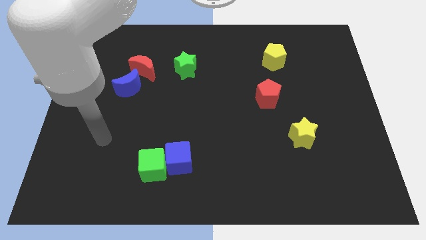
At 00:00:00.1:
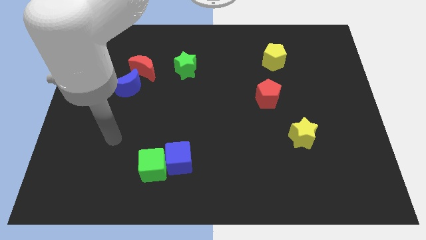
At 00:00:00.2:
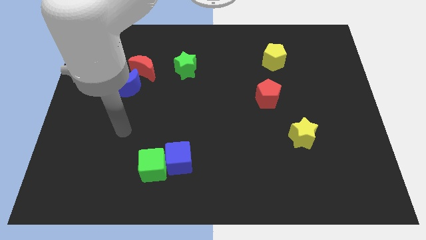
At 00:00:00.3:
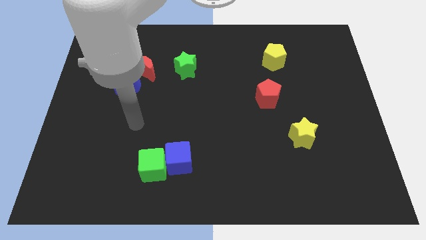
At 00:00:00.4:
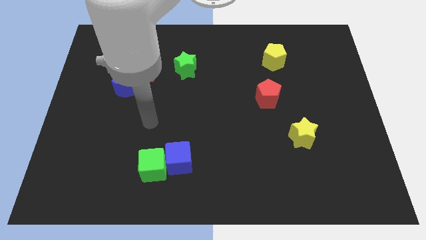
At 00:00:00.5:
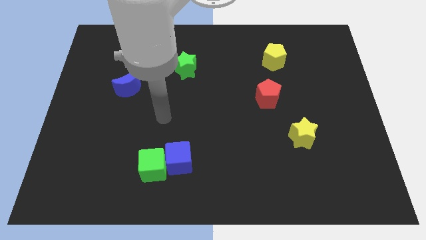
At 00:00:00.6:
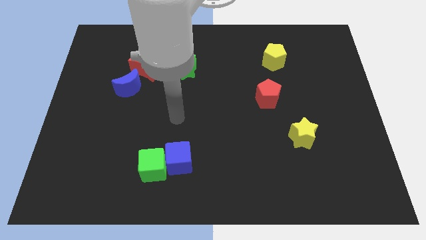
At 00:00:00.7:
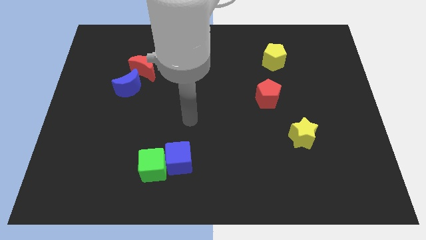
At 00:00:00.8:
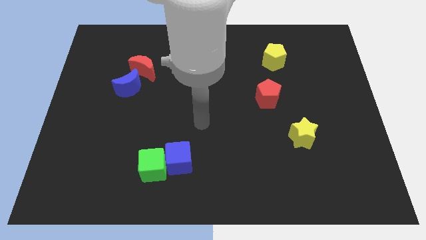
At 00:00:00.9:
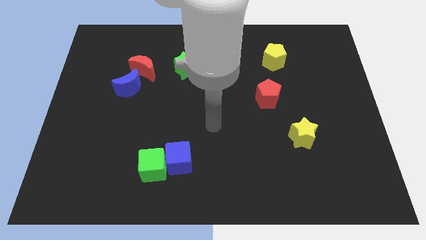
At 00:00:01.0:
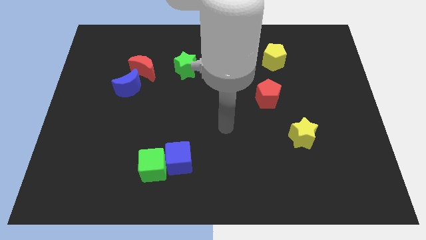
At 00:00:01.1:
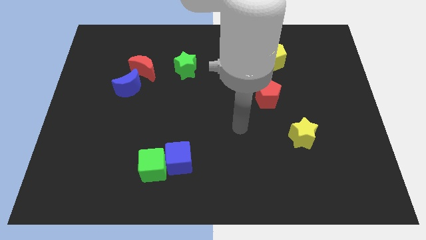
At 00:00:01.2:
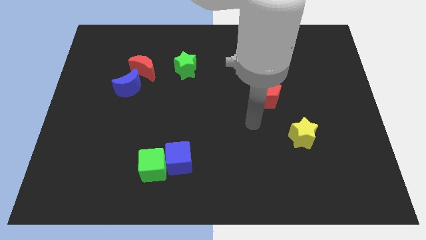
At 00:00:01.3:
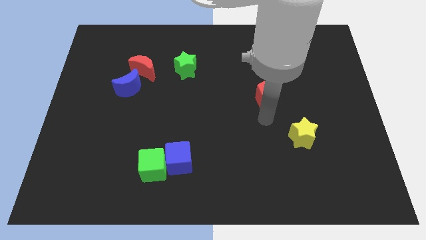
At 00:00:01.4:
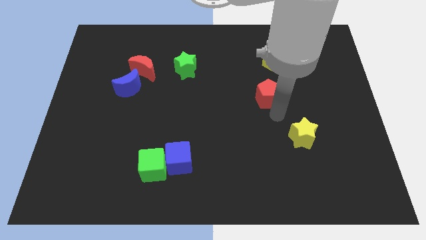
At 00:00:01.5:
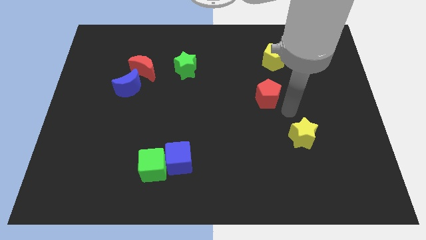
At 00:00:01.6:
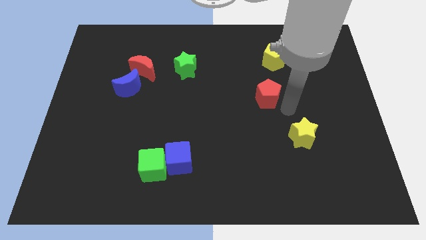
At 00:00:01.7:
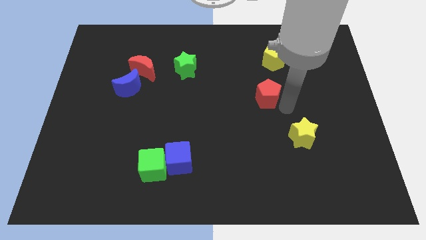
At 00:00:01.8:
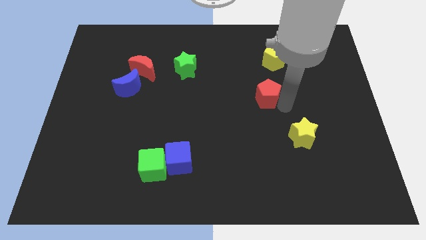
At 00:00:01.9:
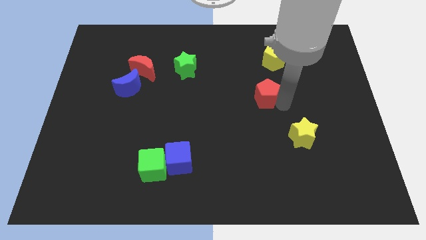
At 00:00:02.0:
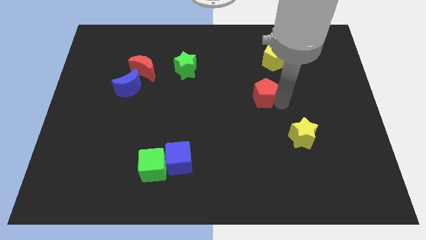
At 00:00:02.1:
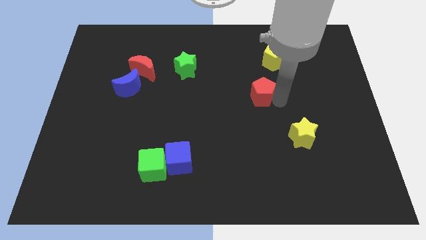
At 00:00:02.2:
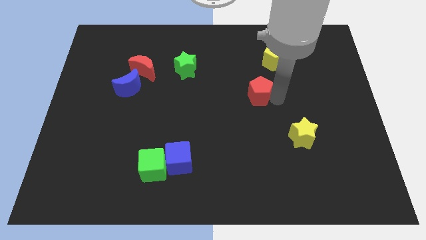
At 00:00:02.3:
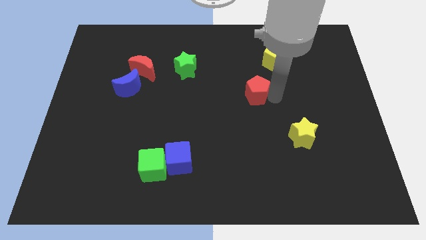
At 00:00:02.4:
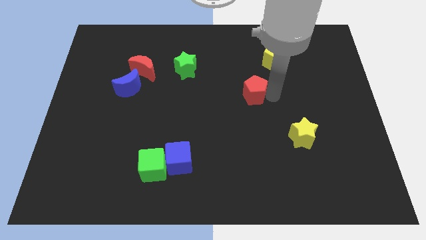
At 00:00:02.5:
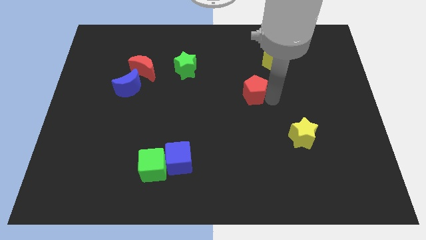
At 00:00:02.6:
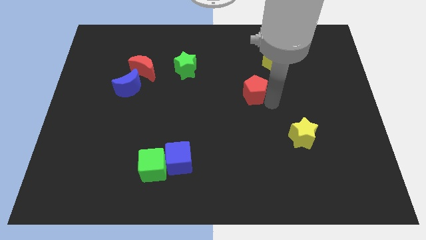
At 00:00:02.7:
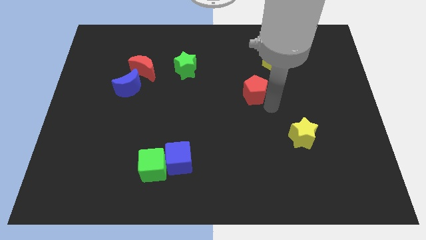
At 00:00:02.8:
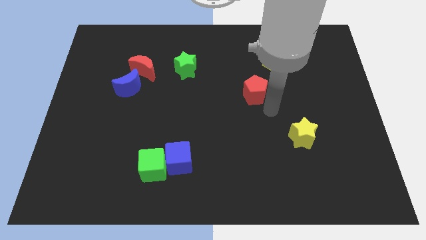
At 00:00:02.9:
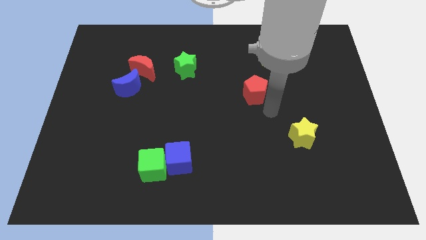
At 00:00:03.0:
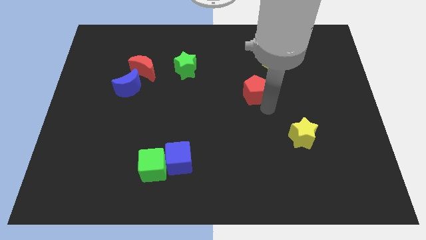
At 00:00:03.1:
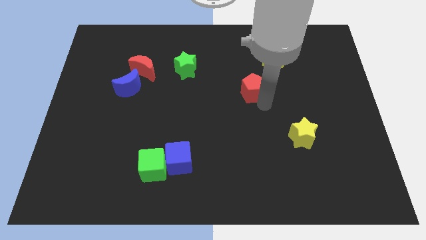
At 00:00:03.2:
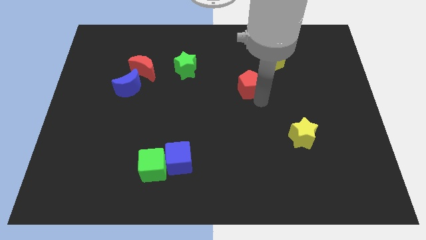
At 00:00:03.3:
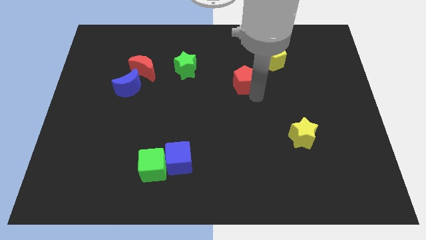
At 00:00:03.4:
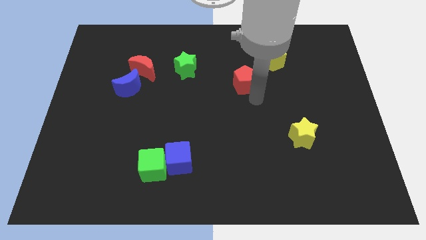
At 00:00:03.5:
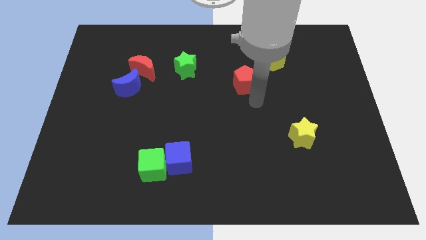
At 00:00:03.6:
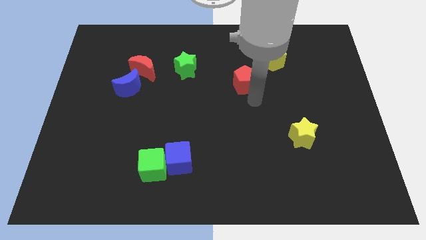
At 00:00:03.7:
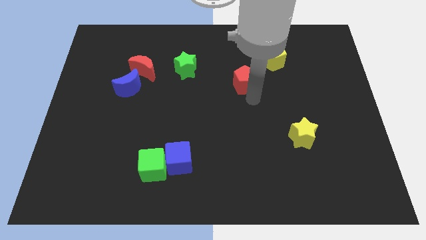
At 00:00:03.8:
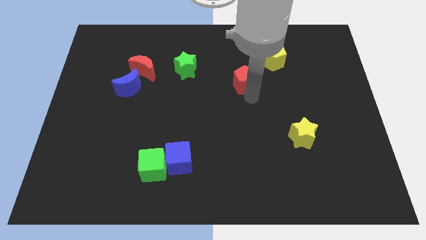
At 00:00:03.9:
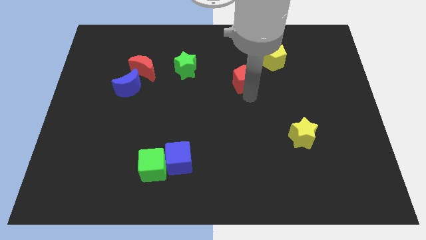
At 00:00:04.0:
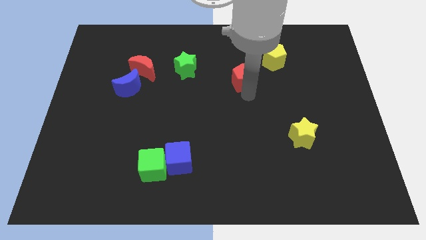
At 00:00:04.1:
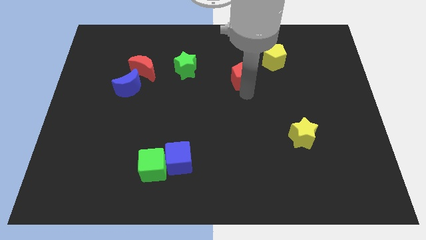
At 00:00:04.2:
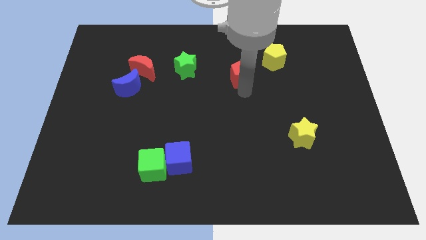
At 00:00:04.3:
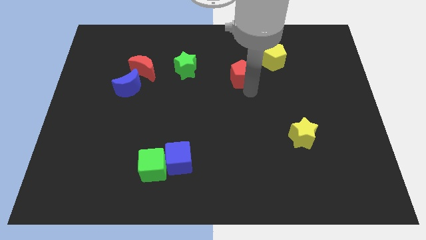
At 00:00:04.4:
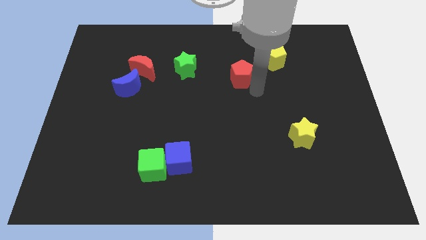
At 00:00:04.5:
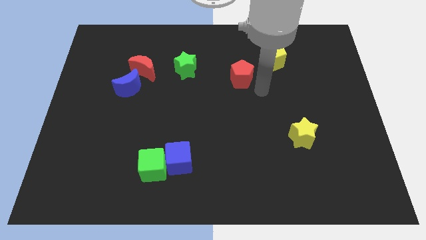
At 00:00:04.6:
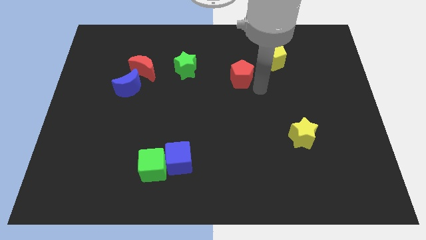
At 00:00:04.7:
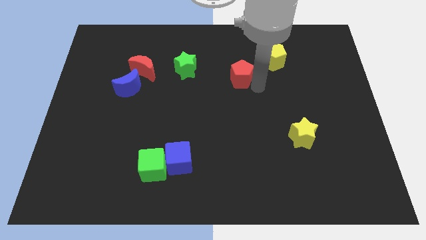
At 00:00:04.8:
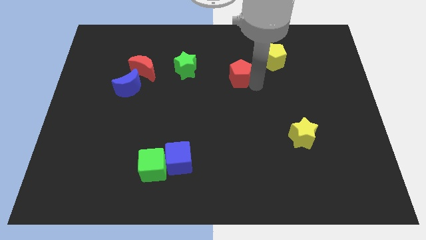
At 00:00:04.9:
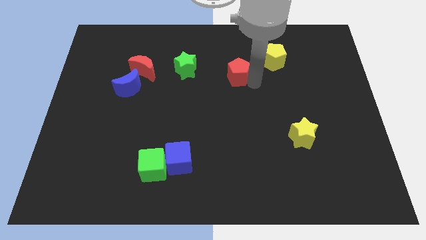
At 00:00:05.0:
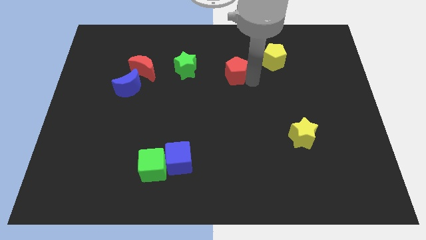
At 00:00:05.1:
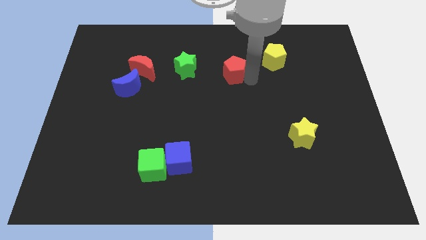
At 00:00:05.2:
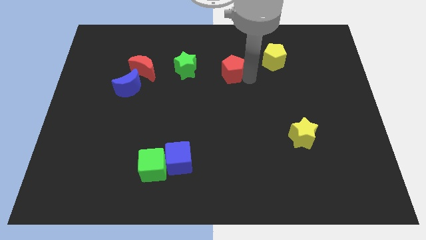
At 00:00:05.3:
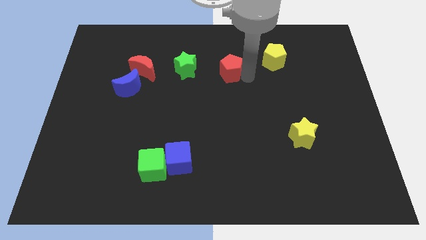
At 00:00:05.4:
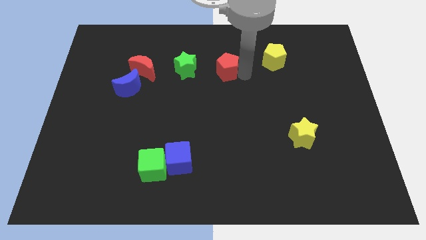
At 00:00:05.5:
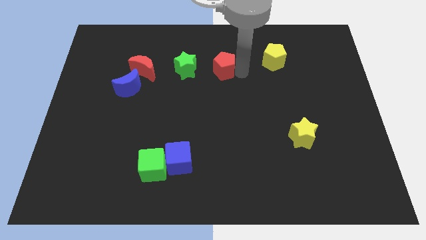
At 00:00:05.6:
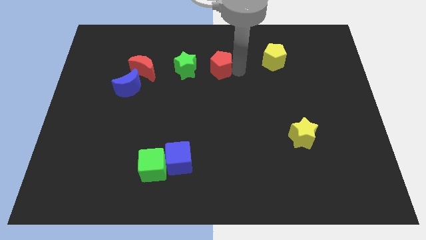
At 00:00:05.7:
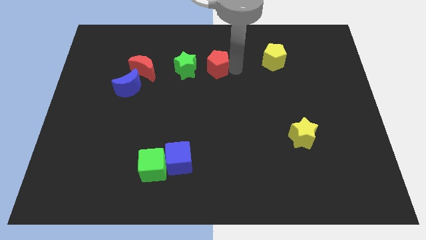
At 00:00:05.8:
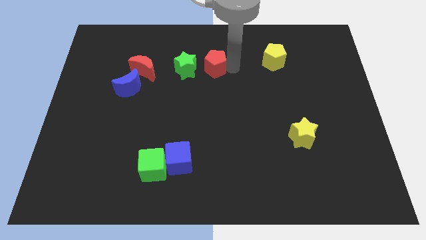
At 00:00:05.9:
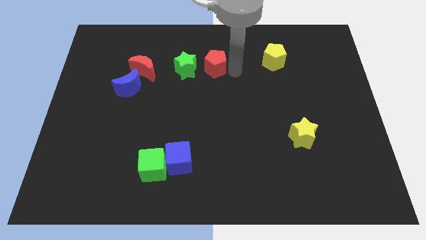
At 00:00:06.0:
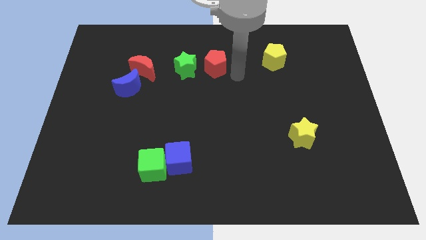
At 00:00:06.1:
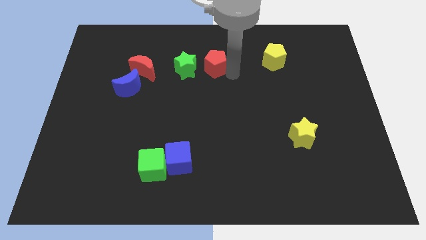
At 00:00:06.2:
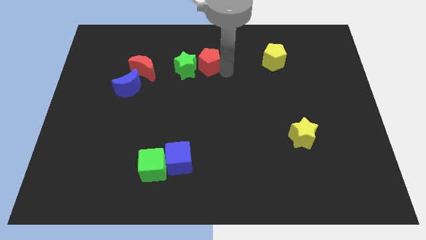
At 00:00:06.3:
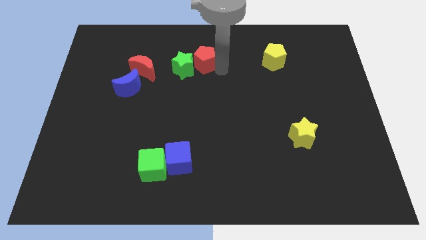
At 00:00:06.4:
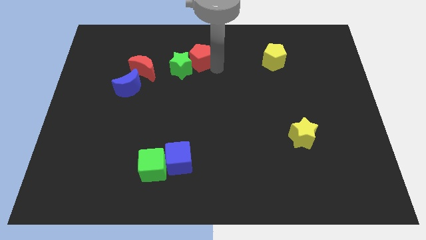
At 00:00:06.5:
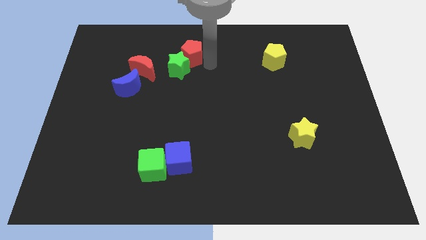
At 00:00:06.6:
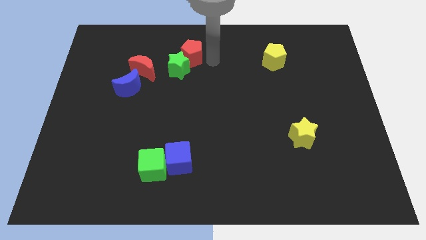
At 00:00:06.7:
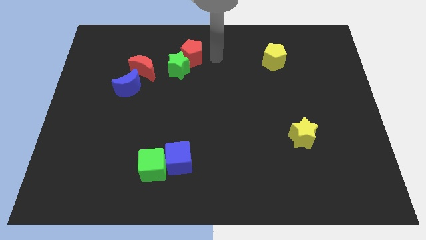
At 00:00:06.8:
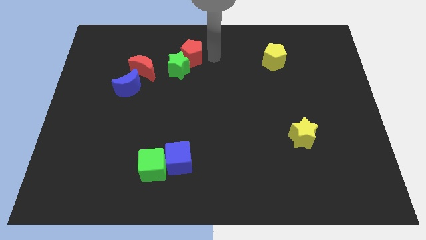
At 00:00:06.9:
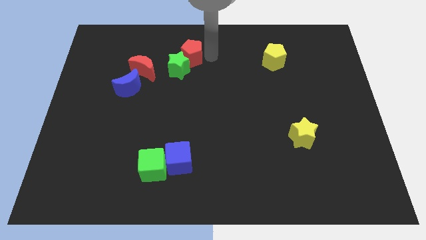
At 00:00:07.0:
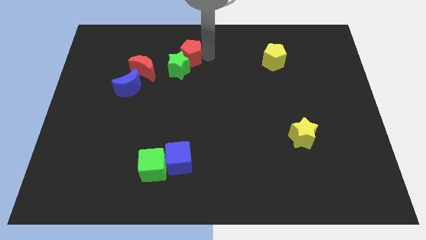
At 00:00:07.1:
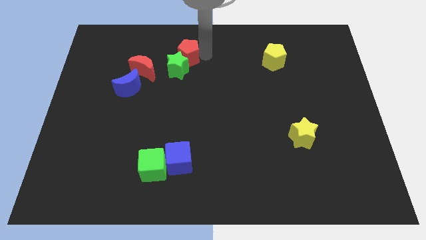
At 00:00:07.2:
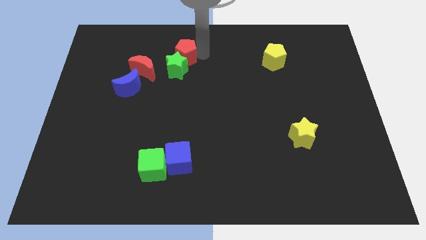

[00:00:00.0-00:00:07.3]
move the red pentagon diagonally up and to the right of the red moon
